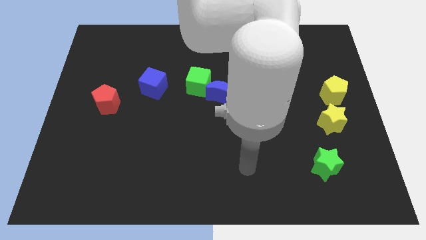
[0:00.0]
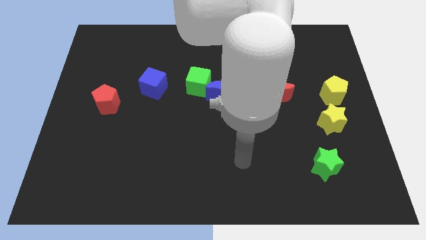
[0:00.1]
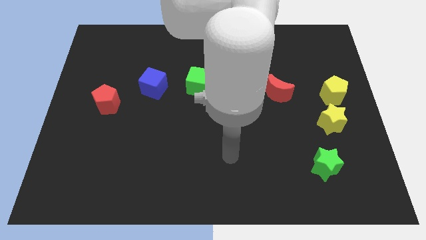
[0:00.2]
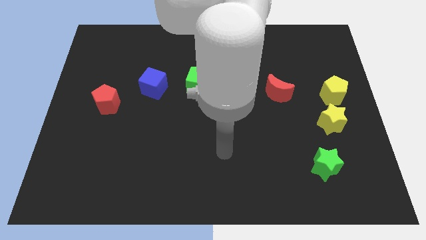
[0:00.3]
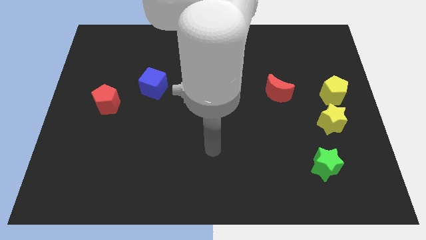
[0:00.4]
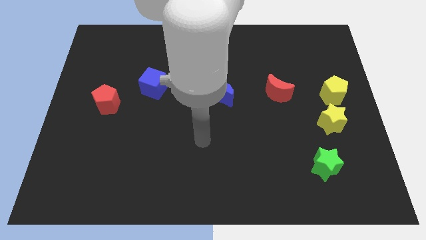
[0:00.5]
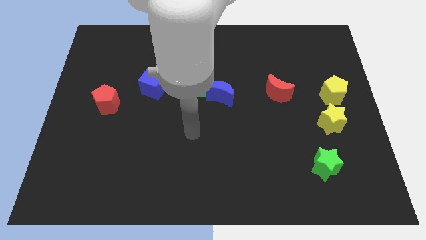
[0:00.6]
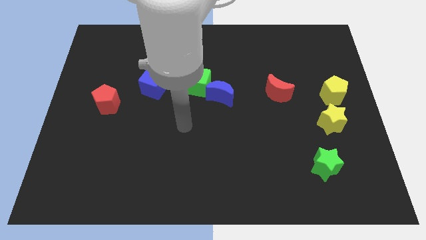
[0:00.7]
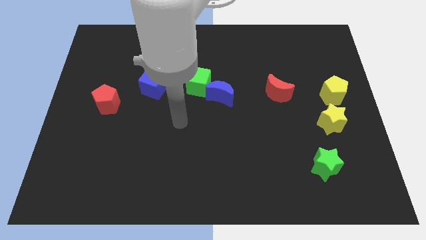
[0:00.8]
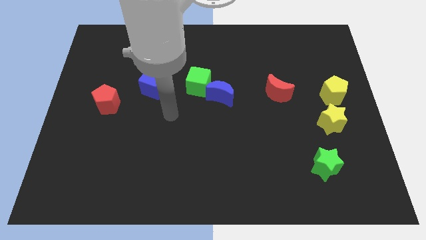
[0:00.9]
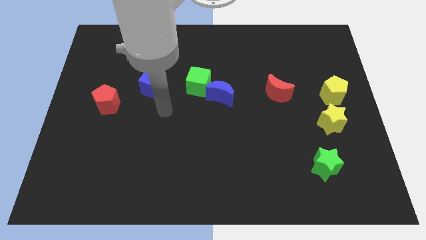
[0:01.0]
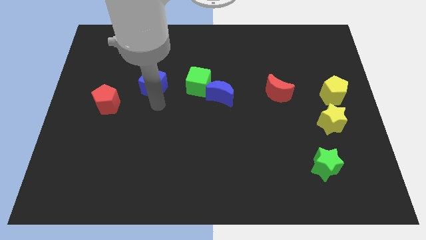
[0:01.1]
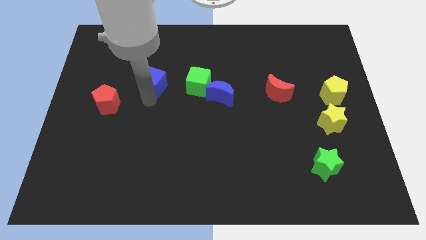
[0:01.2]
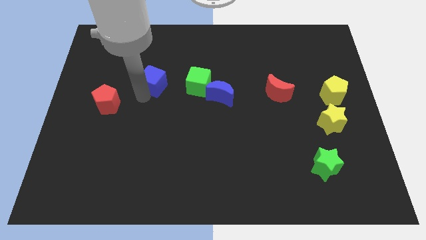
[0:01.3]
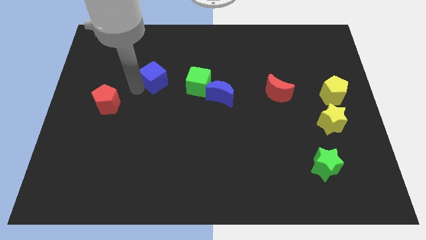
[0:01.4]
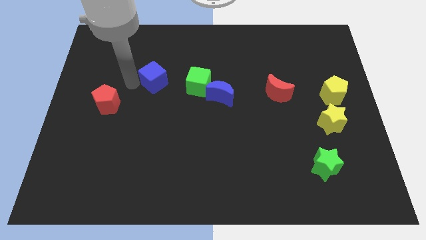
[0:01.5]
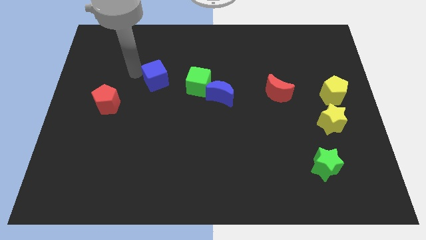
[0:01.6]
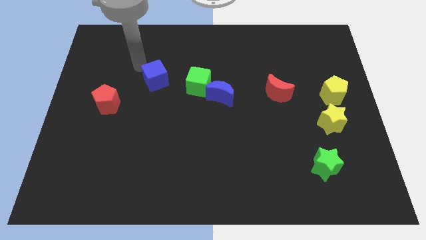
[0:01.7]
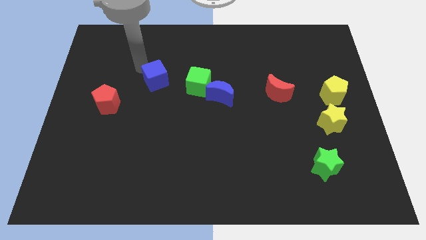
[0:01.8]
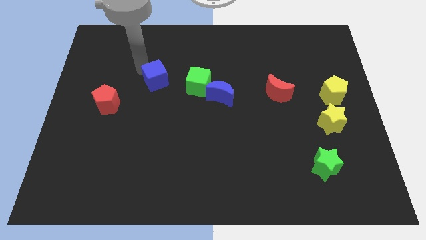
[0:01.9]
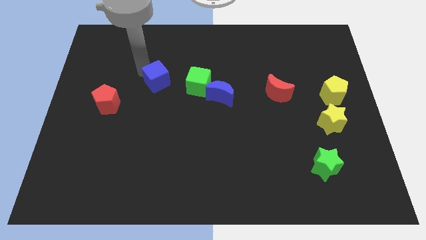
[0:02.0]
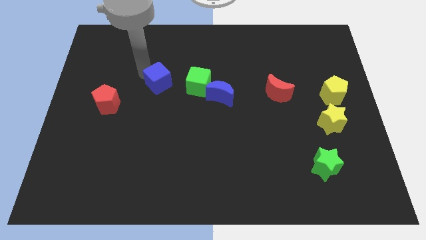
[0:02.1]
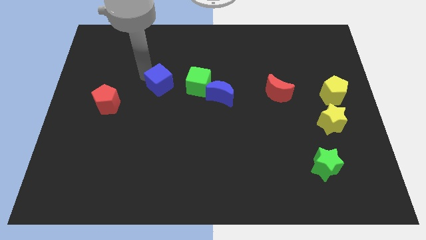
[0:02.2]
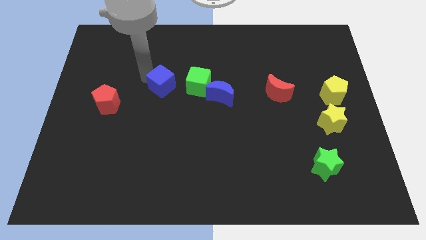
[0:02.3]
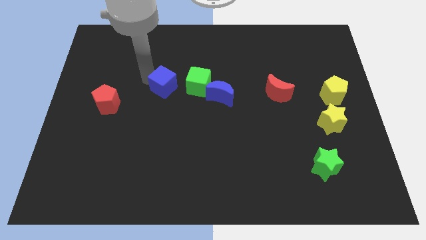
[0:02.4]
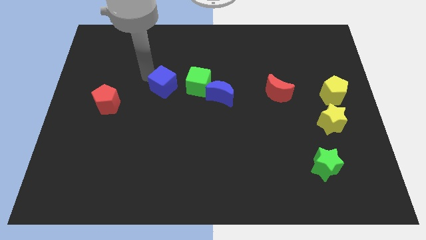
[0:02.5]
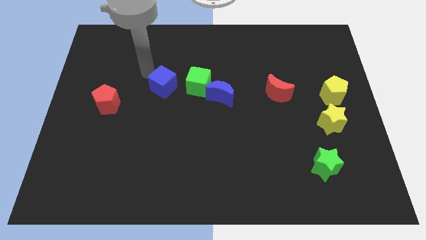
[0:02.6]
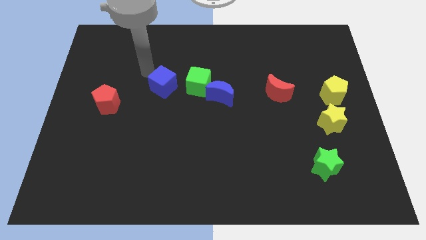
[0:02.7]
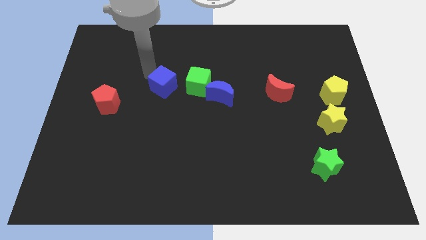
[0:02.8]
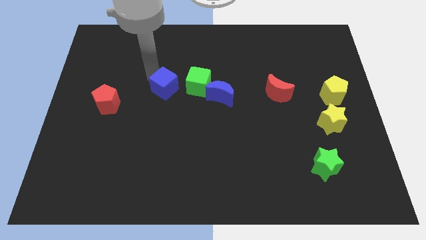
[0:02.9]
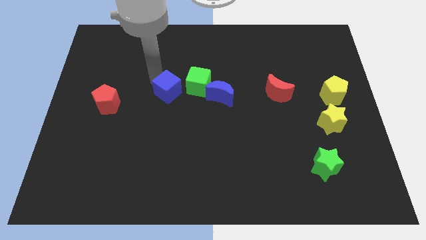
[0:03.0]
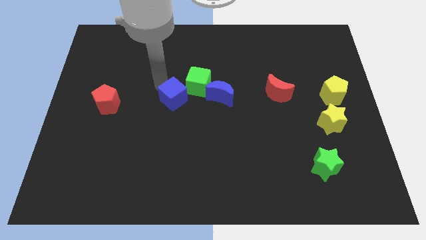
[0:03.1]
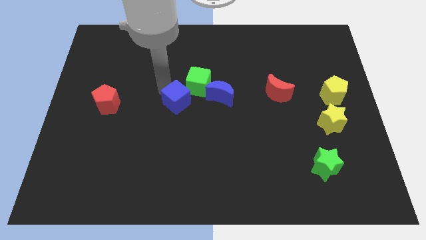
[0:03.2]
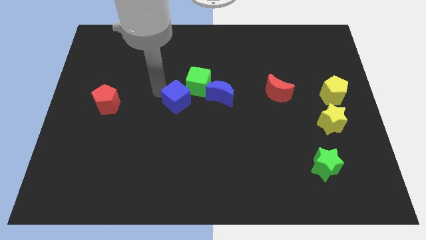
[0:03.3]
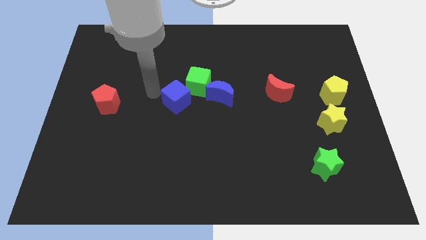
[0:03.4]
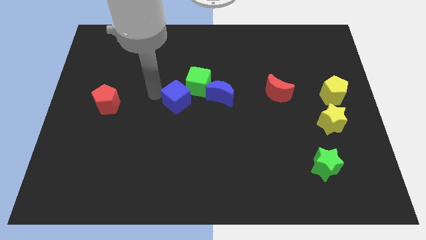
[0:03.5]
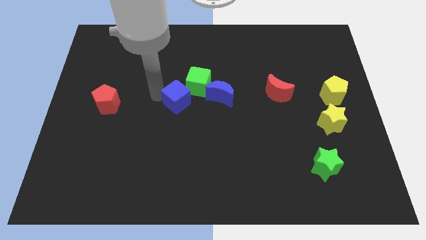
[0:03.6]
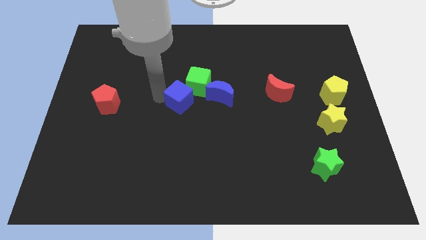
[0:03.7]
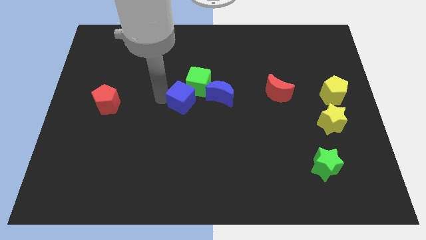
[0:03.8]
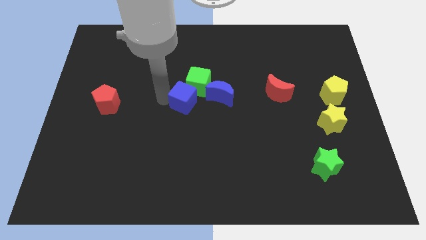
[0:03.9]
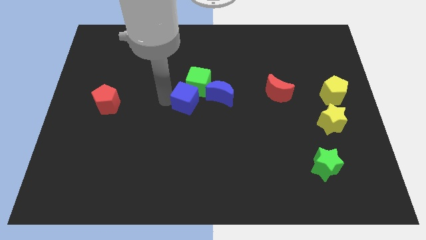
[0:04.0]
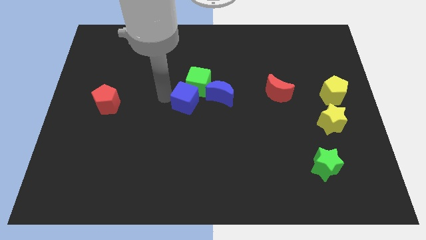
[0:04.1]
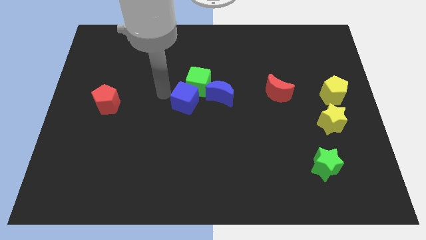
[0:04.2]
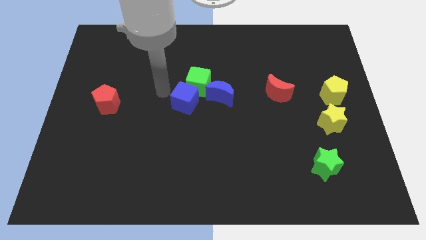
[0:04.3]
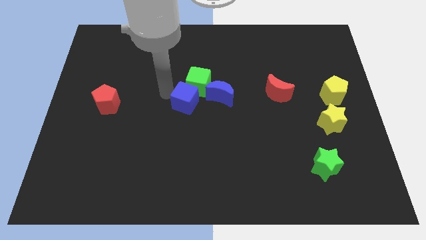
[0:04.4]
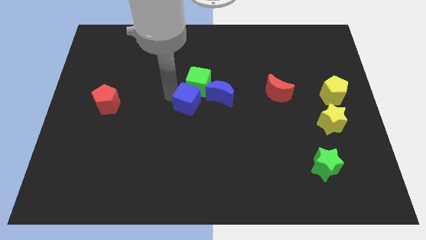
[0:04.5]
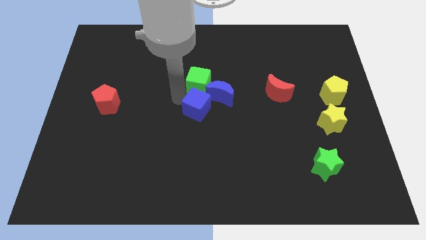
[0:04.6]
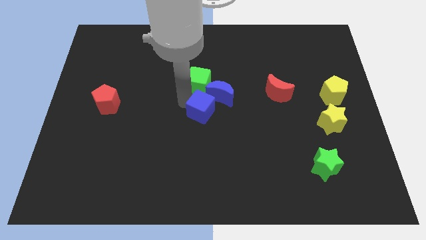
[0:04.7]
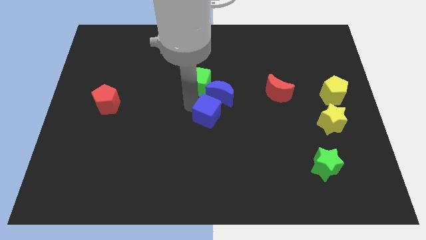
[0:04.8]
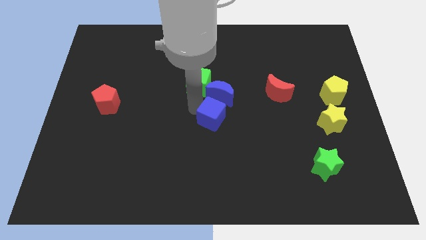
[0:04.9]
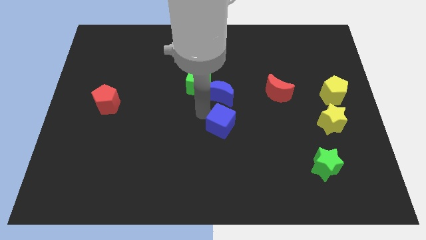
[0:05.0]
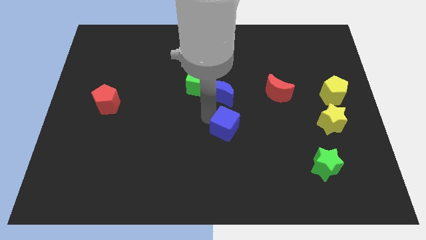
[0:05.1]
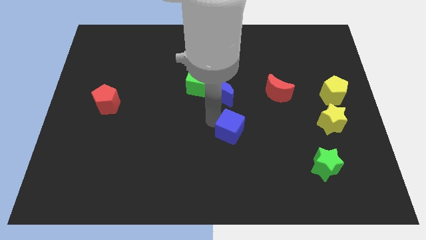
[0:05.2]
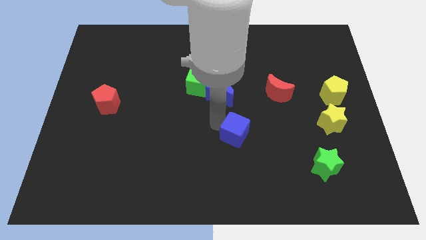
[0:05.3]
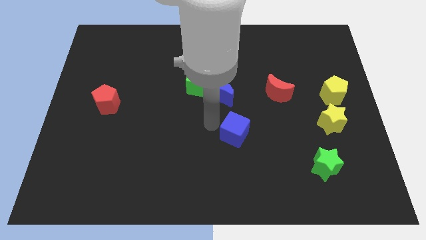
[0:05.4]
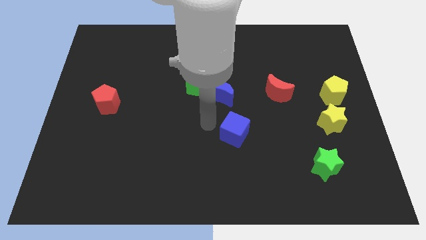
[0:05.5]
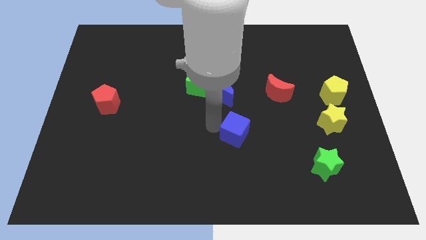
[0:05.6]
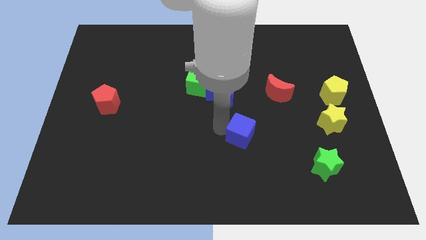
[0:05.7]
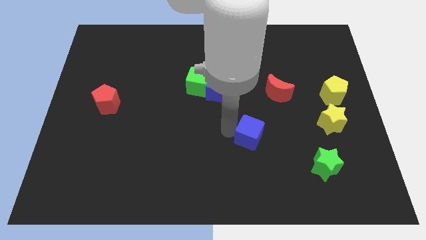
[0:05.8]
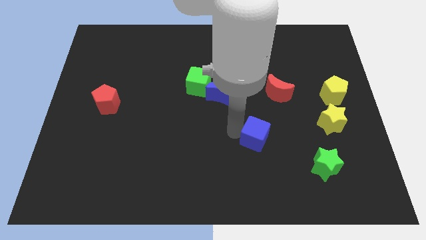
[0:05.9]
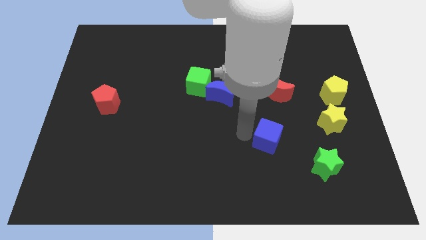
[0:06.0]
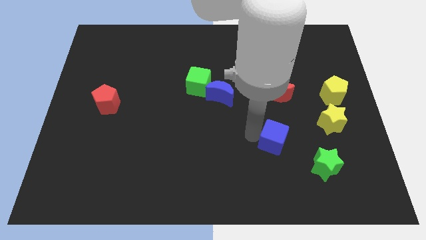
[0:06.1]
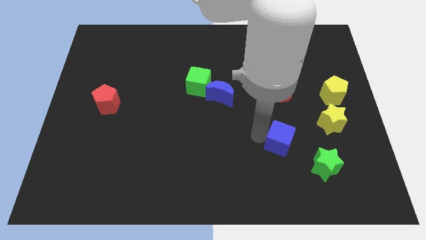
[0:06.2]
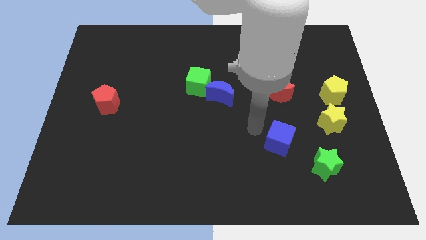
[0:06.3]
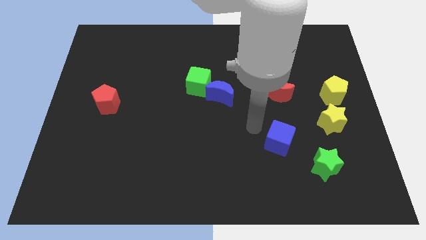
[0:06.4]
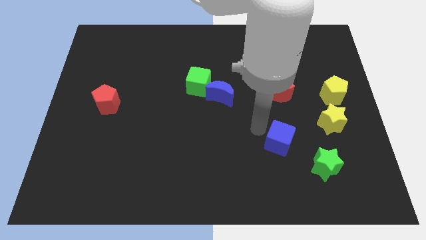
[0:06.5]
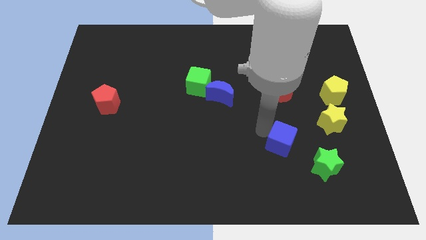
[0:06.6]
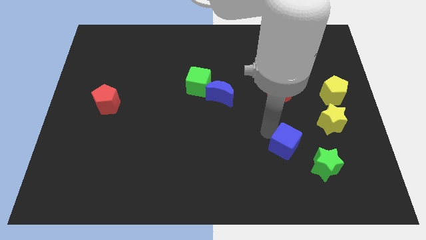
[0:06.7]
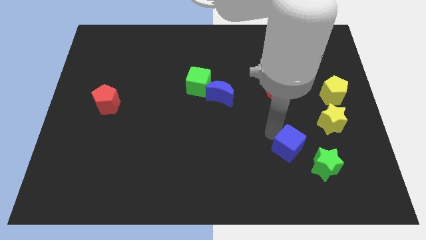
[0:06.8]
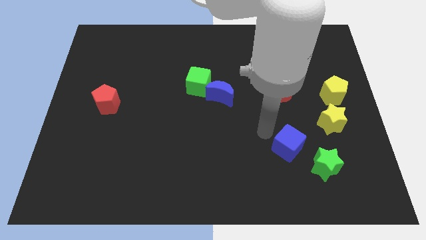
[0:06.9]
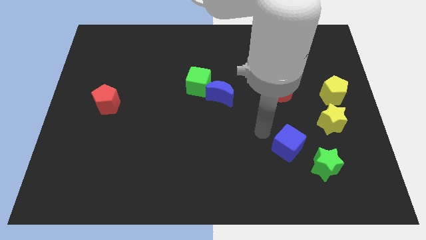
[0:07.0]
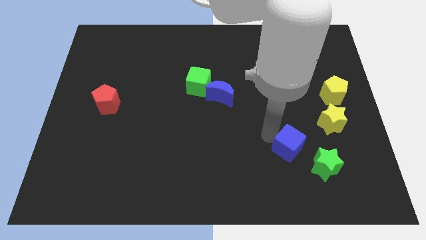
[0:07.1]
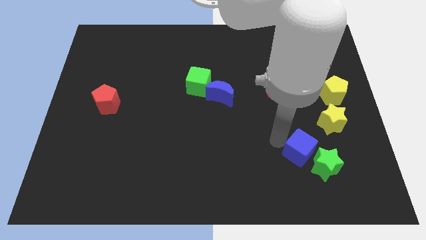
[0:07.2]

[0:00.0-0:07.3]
push the blue cube to the green star

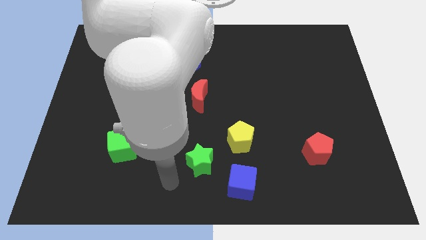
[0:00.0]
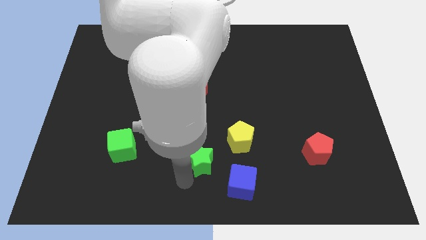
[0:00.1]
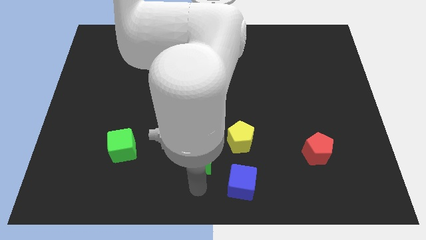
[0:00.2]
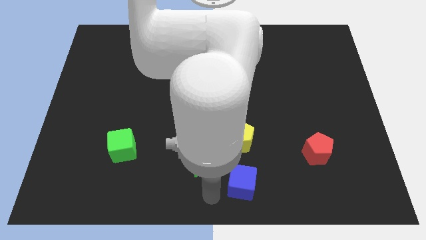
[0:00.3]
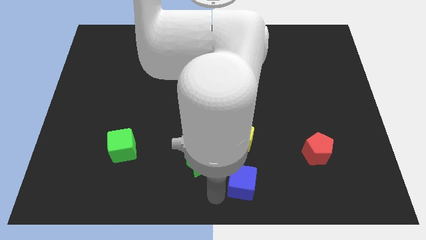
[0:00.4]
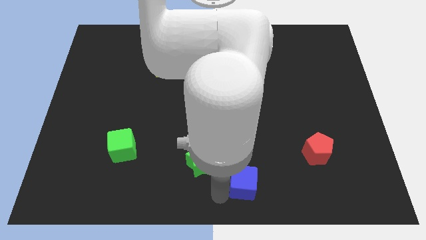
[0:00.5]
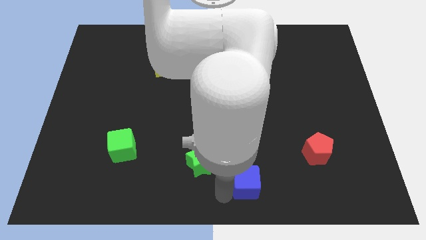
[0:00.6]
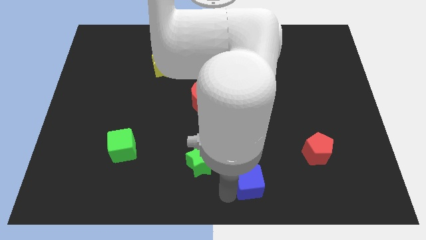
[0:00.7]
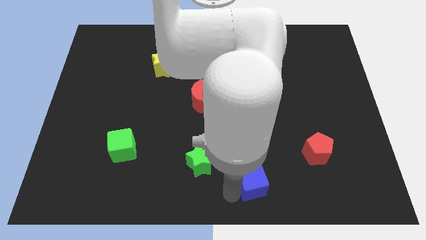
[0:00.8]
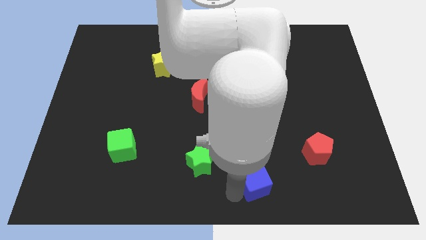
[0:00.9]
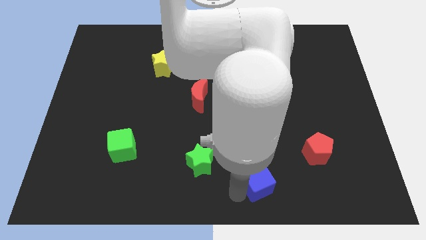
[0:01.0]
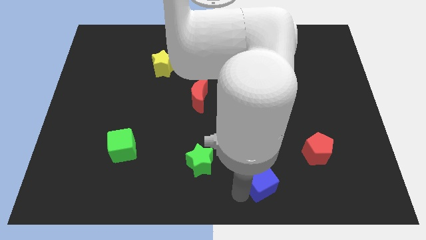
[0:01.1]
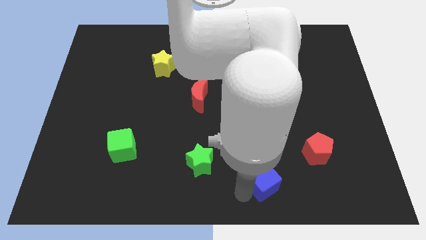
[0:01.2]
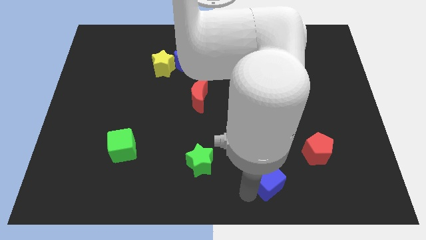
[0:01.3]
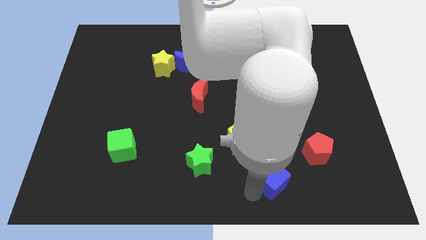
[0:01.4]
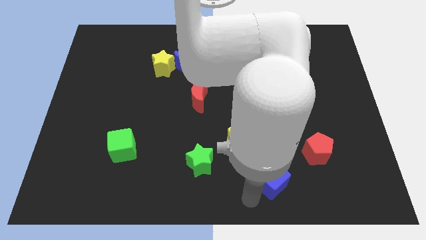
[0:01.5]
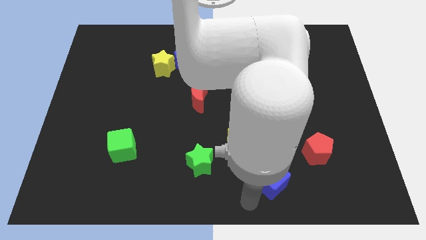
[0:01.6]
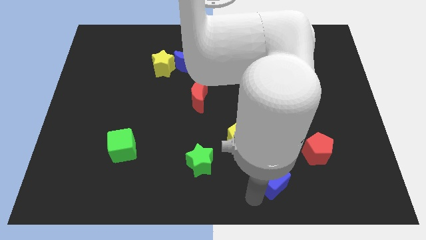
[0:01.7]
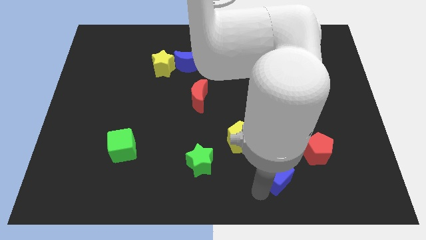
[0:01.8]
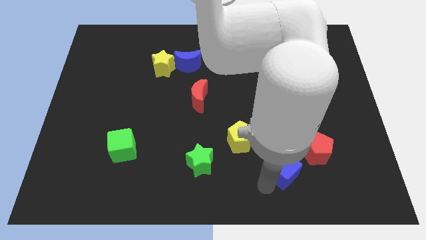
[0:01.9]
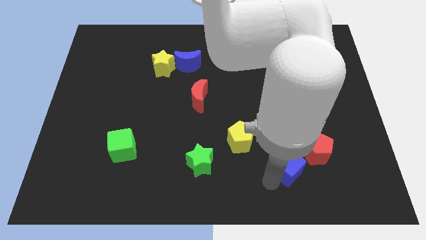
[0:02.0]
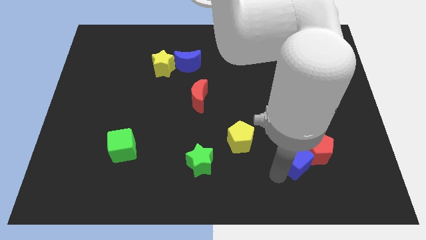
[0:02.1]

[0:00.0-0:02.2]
move the blue cube towards the red pentagon
